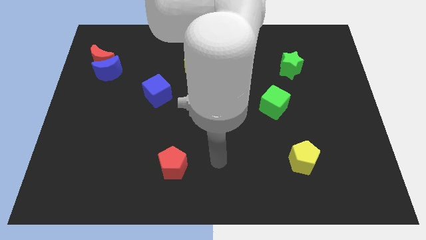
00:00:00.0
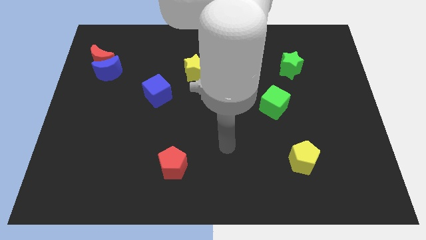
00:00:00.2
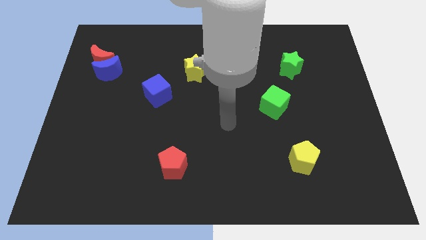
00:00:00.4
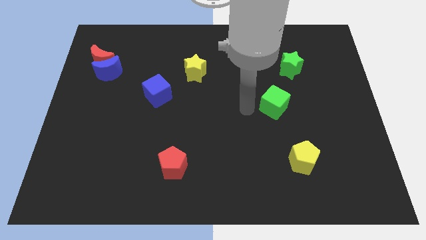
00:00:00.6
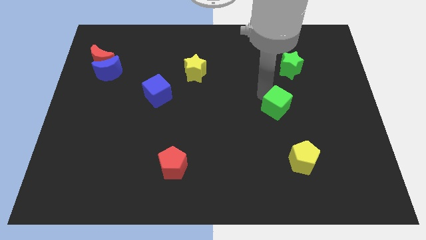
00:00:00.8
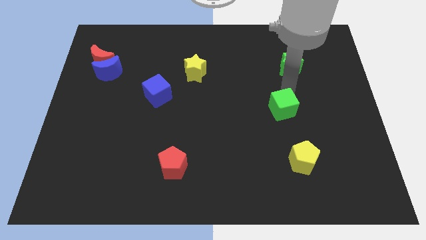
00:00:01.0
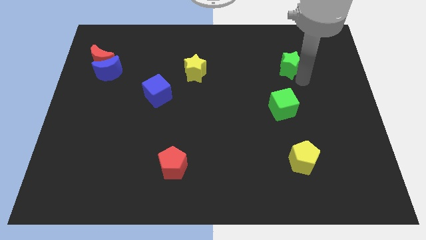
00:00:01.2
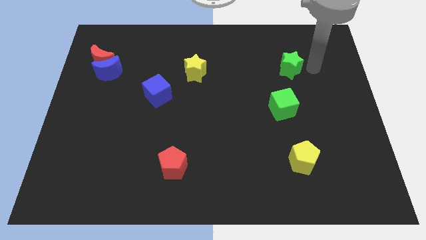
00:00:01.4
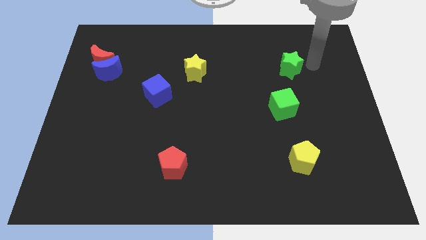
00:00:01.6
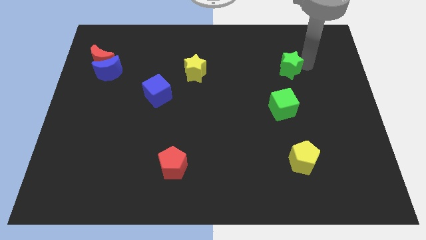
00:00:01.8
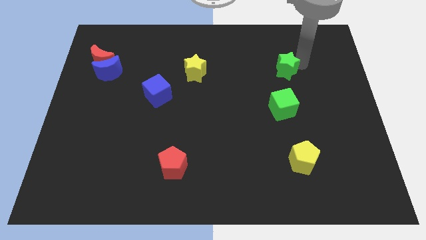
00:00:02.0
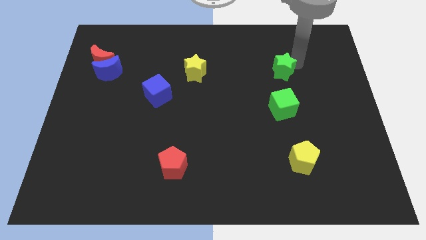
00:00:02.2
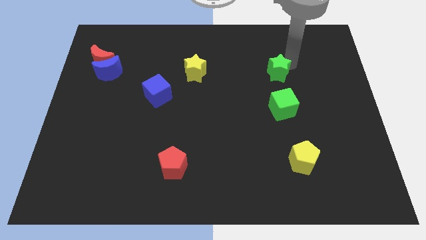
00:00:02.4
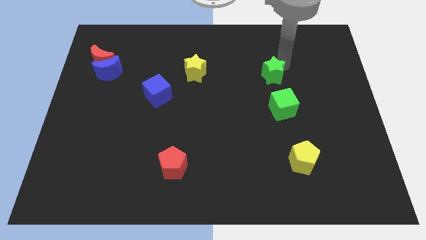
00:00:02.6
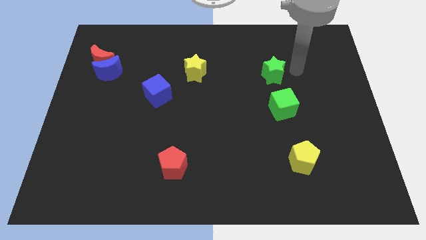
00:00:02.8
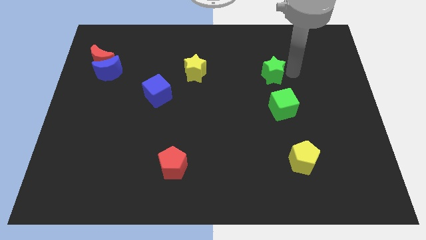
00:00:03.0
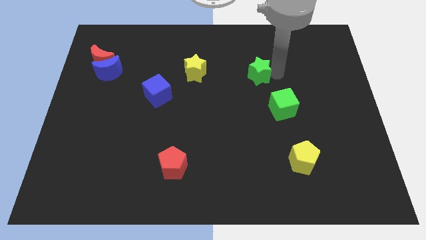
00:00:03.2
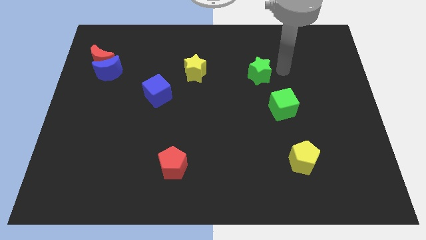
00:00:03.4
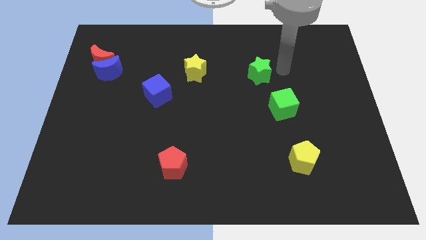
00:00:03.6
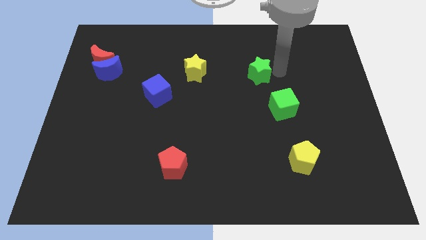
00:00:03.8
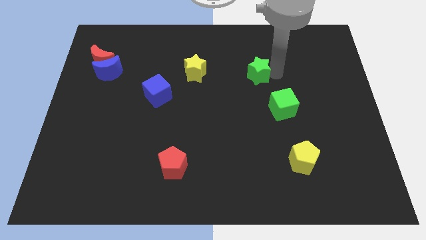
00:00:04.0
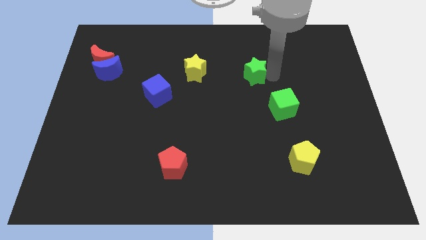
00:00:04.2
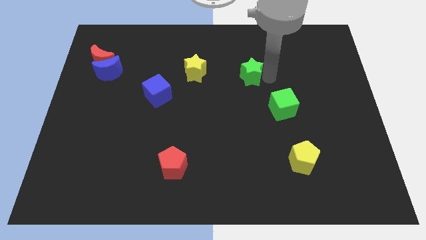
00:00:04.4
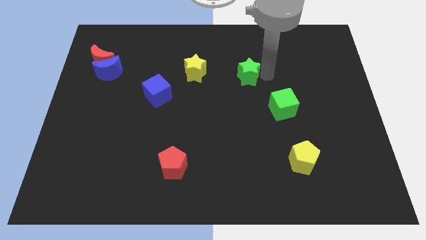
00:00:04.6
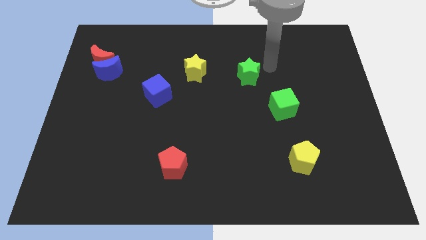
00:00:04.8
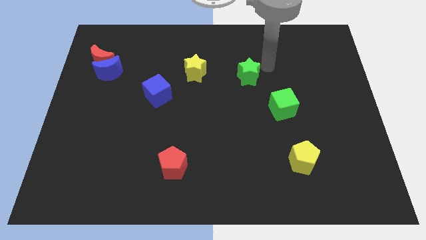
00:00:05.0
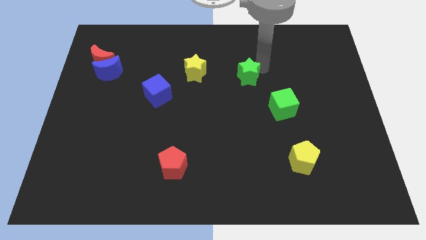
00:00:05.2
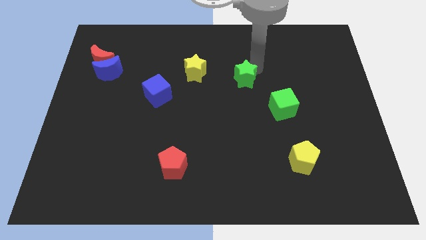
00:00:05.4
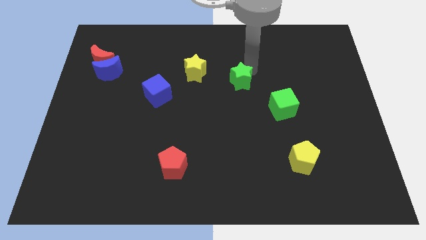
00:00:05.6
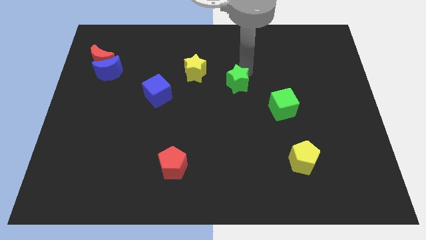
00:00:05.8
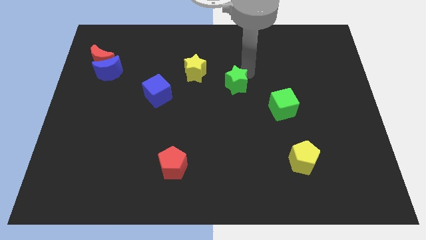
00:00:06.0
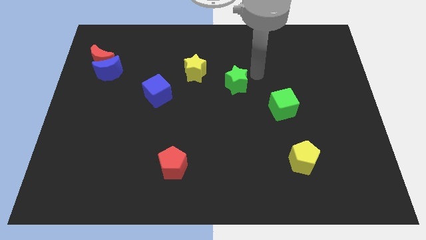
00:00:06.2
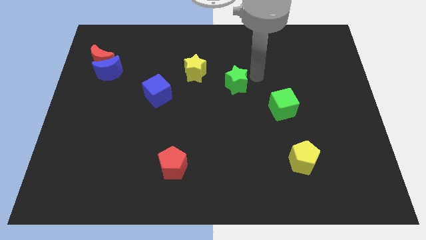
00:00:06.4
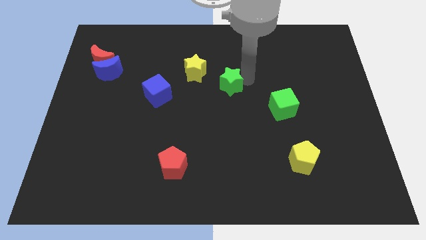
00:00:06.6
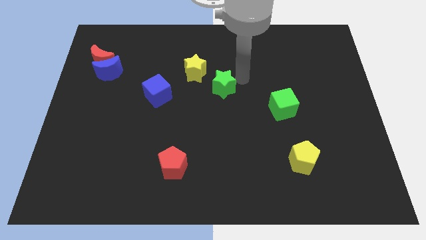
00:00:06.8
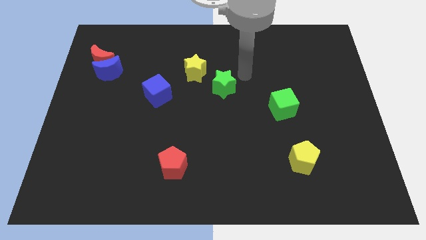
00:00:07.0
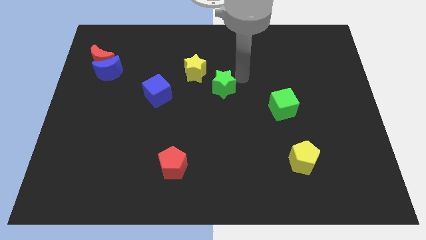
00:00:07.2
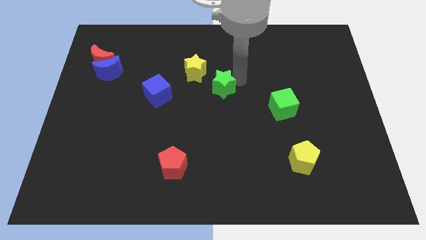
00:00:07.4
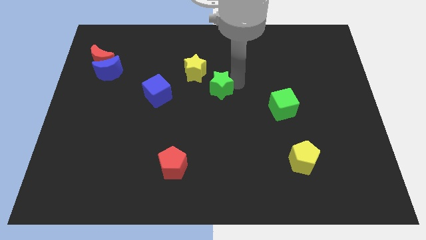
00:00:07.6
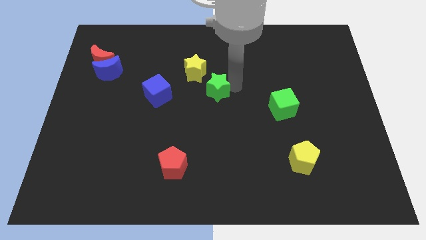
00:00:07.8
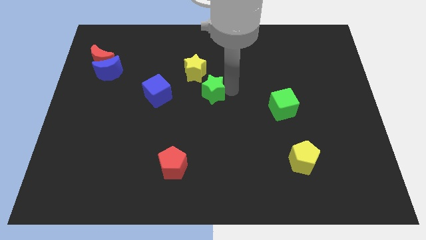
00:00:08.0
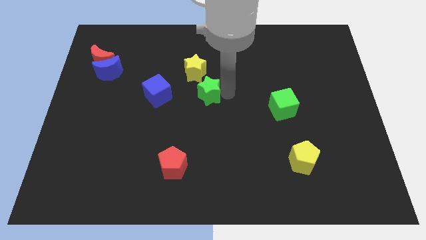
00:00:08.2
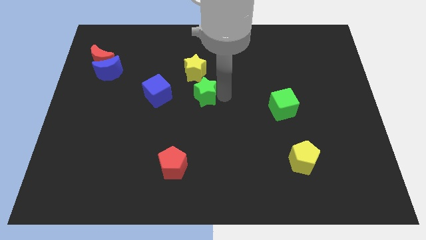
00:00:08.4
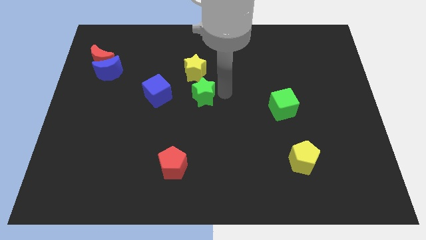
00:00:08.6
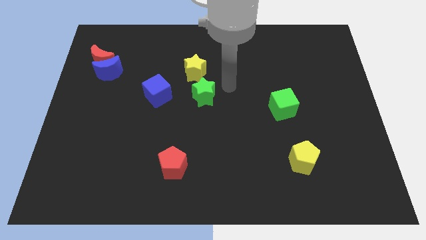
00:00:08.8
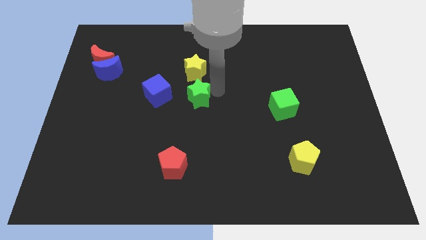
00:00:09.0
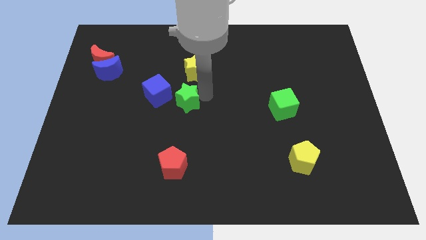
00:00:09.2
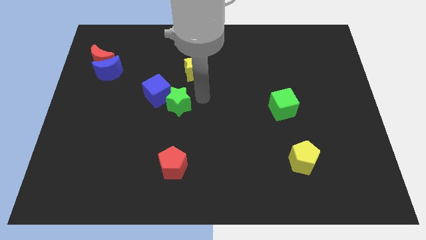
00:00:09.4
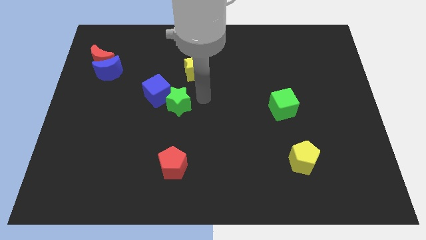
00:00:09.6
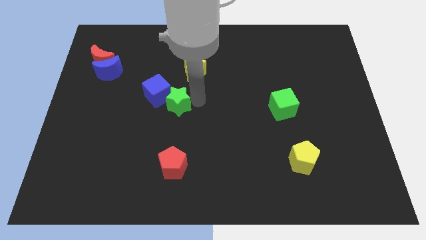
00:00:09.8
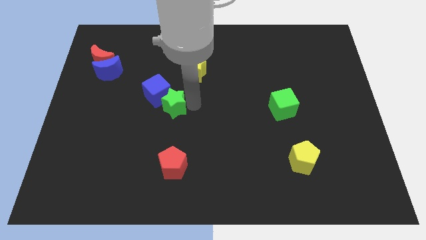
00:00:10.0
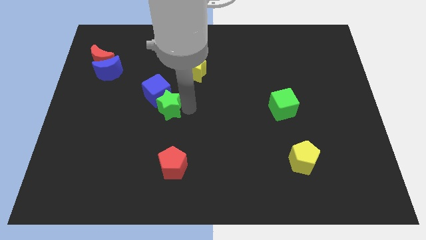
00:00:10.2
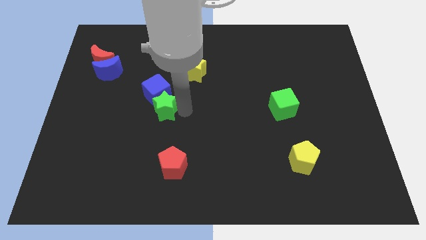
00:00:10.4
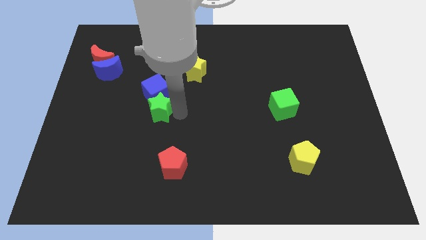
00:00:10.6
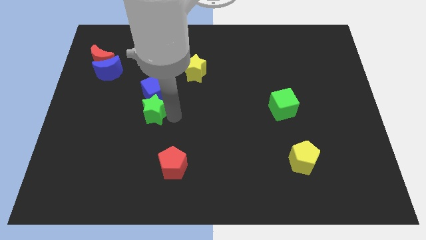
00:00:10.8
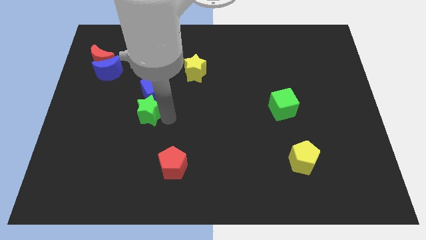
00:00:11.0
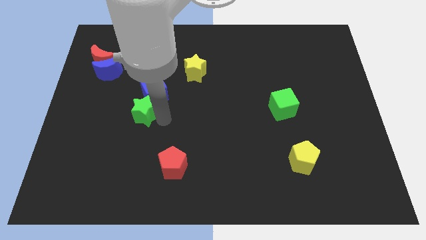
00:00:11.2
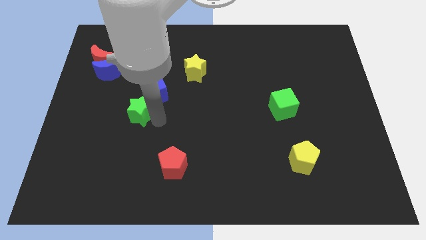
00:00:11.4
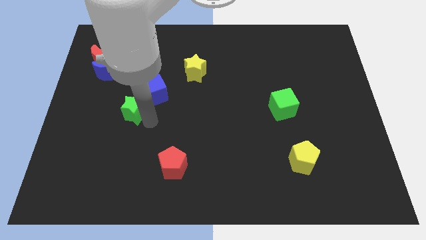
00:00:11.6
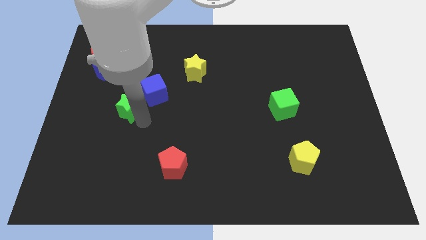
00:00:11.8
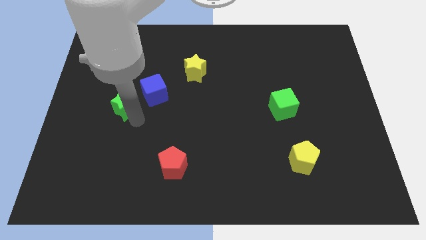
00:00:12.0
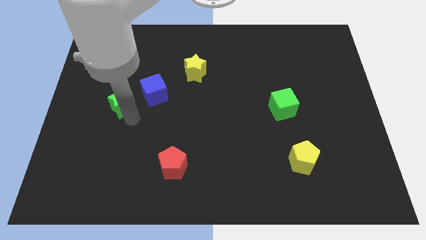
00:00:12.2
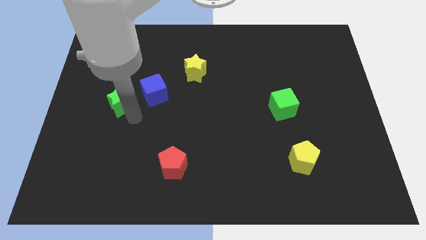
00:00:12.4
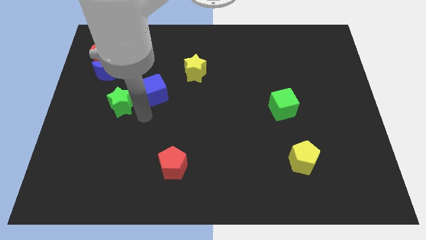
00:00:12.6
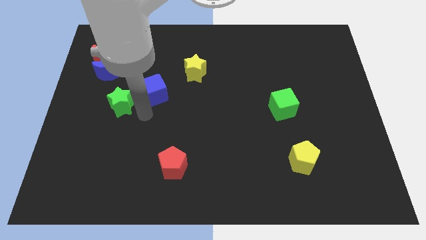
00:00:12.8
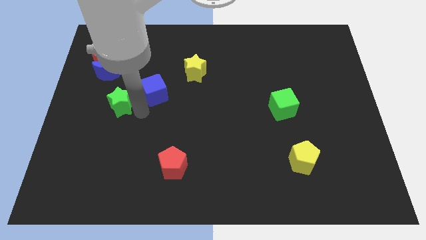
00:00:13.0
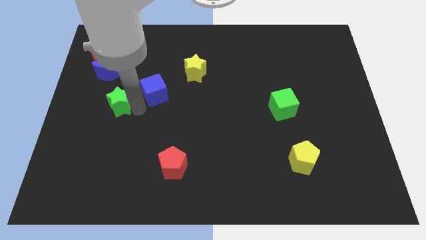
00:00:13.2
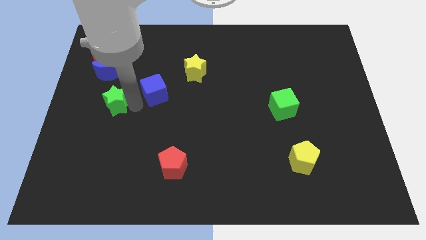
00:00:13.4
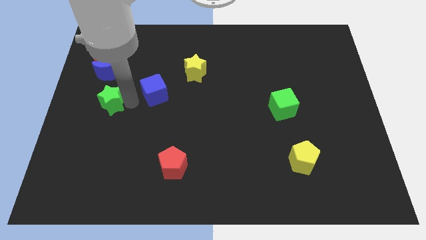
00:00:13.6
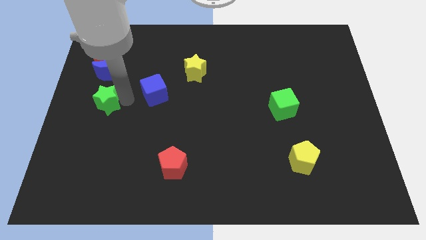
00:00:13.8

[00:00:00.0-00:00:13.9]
push the green star to the center left
